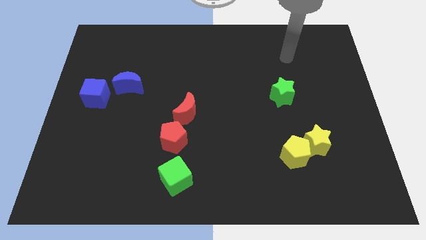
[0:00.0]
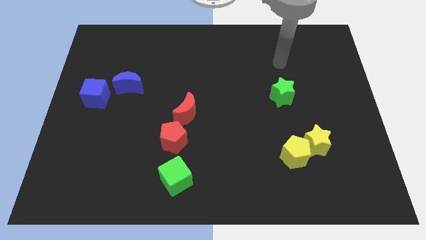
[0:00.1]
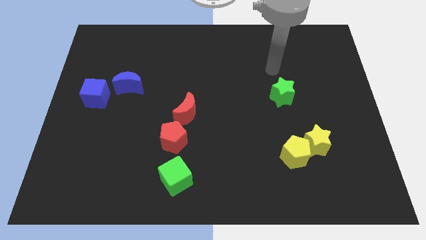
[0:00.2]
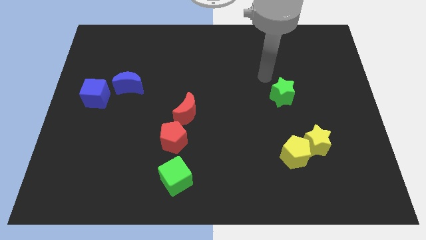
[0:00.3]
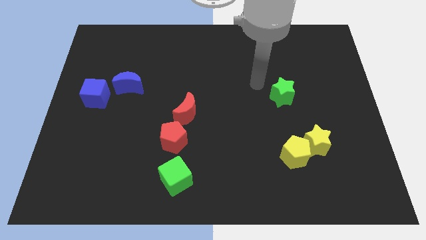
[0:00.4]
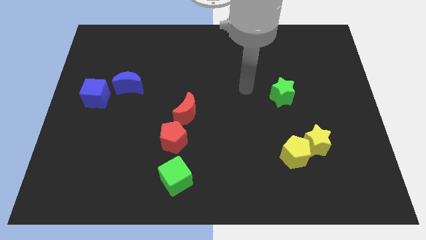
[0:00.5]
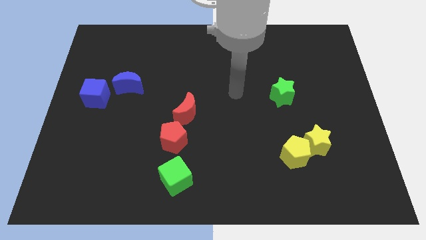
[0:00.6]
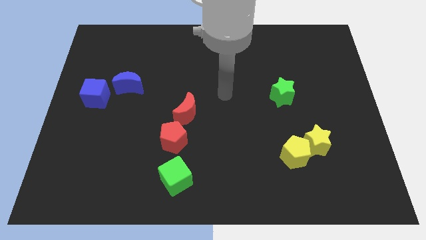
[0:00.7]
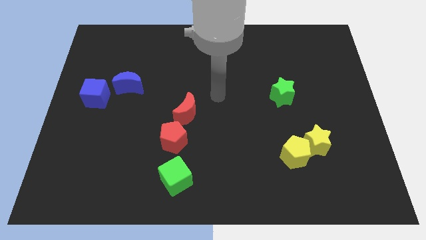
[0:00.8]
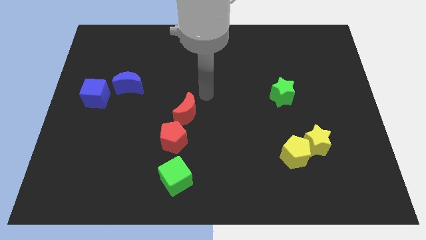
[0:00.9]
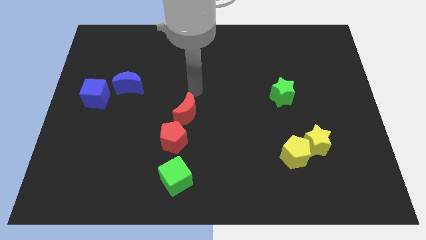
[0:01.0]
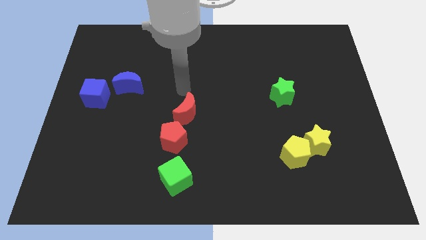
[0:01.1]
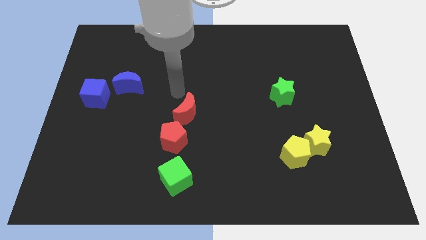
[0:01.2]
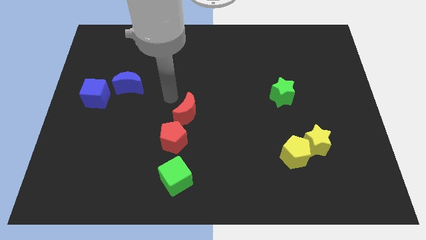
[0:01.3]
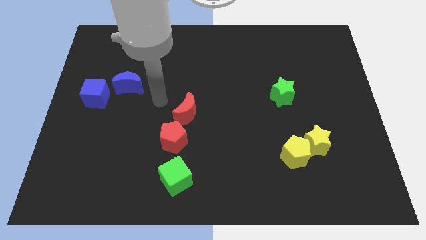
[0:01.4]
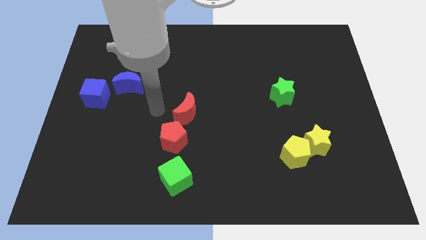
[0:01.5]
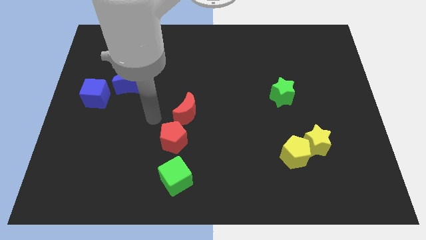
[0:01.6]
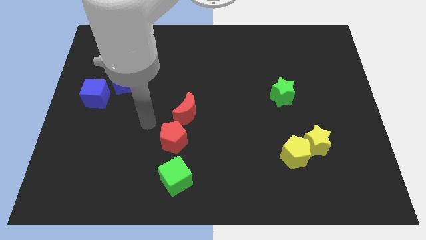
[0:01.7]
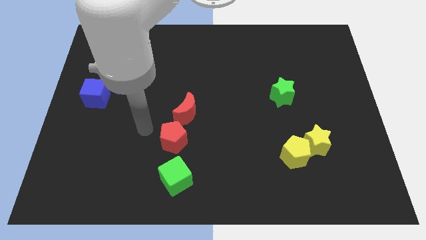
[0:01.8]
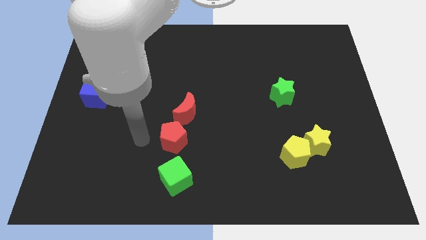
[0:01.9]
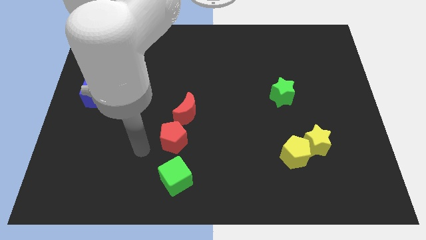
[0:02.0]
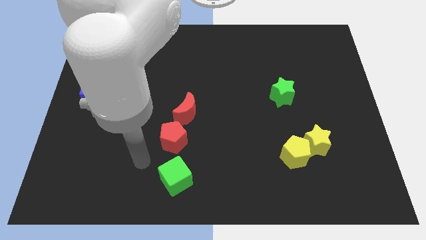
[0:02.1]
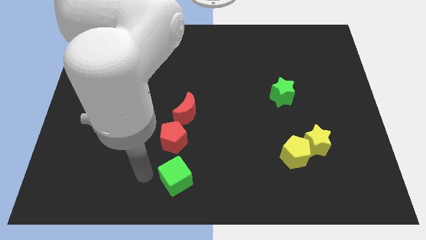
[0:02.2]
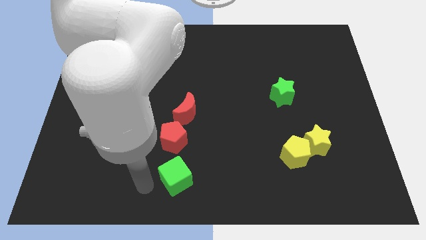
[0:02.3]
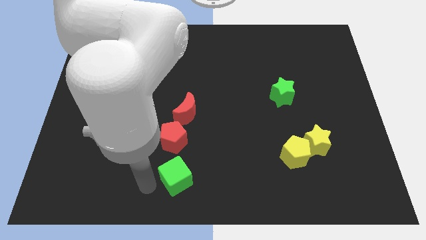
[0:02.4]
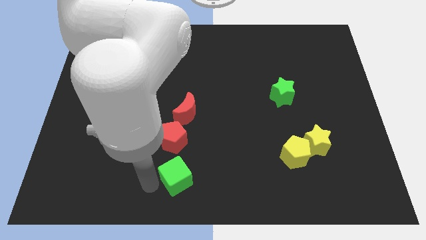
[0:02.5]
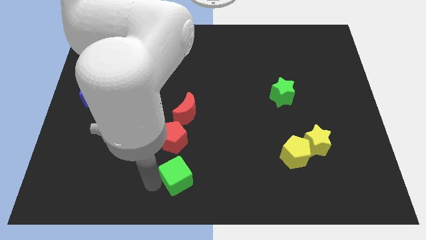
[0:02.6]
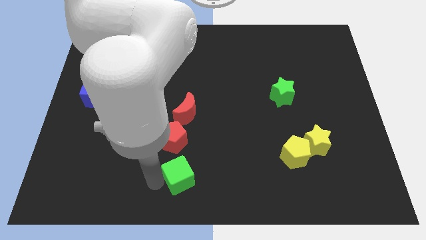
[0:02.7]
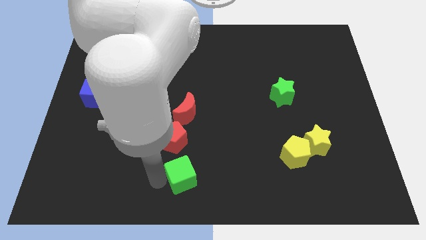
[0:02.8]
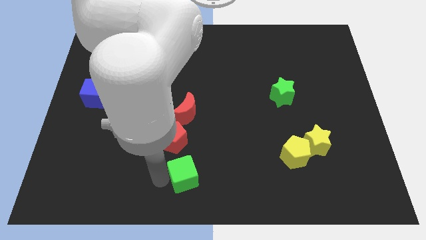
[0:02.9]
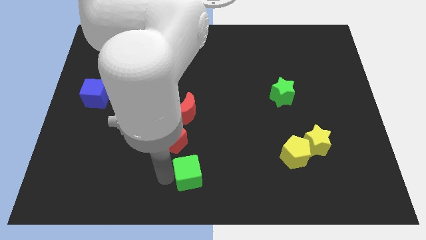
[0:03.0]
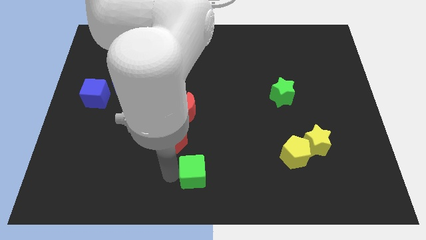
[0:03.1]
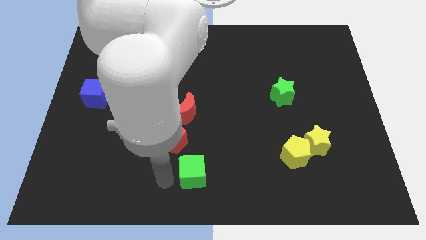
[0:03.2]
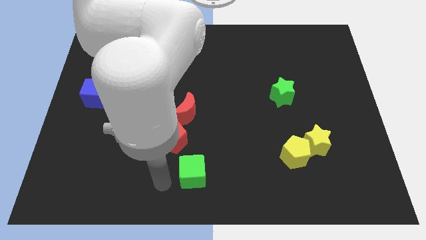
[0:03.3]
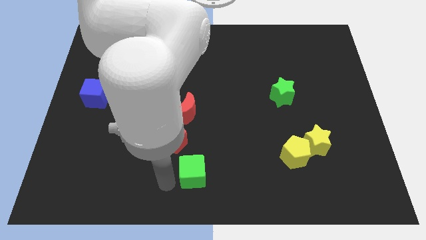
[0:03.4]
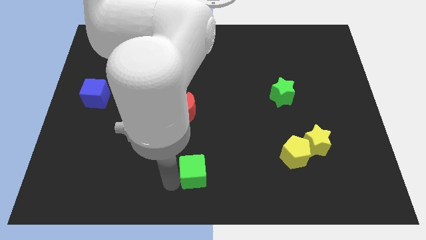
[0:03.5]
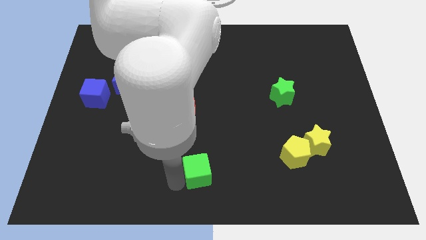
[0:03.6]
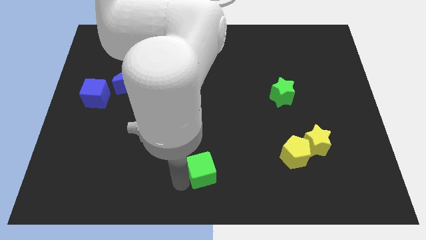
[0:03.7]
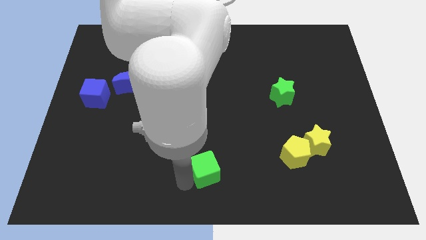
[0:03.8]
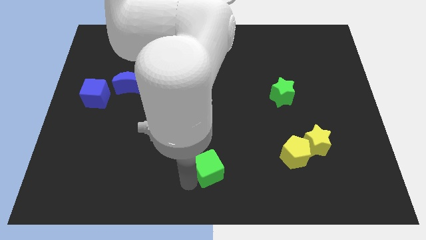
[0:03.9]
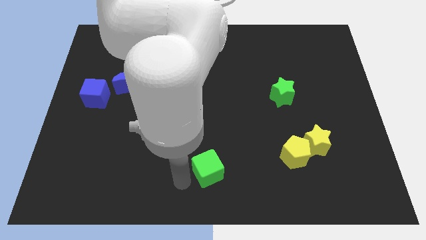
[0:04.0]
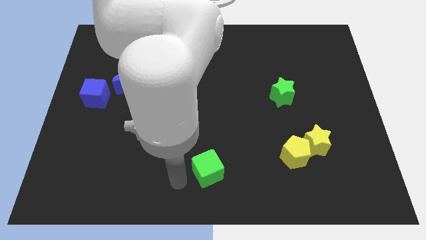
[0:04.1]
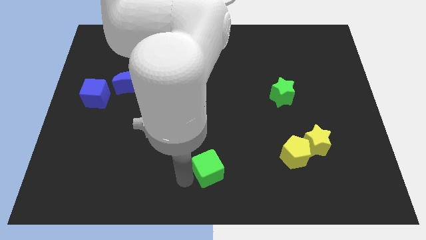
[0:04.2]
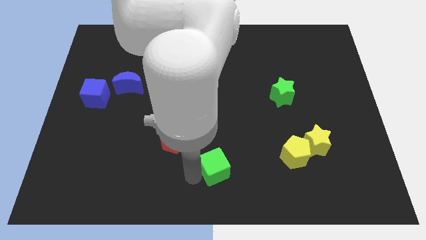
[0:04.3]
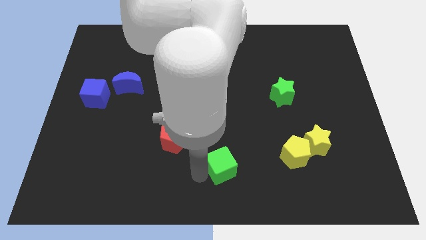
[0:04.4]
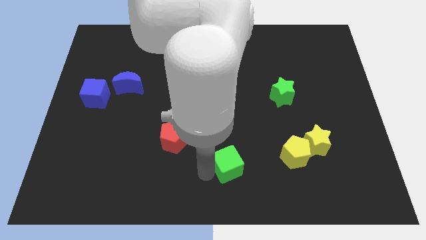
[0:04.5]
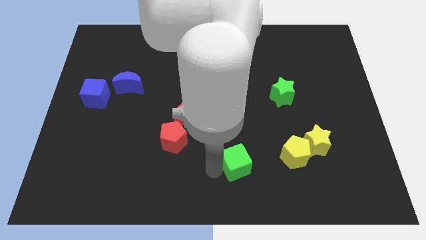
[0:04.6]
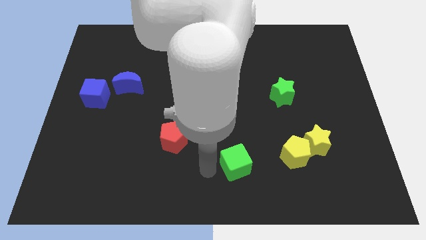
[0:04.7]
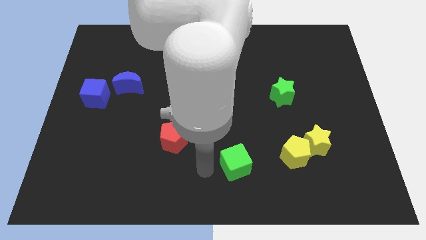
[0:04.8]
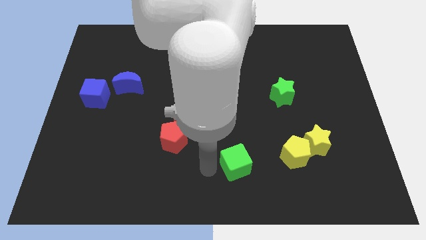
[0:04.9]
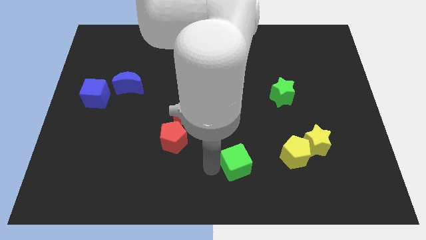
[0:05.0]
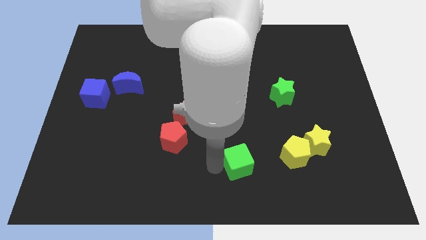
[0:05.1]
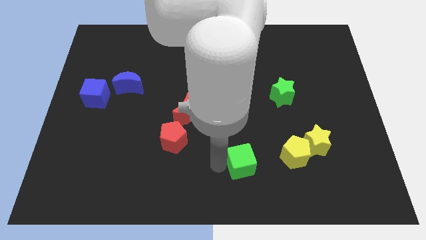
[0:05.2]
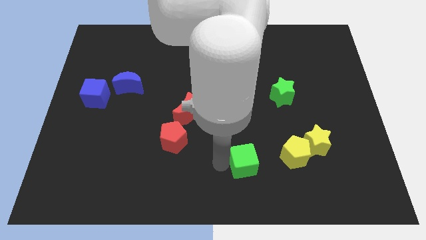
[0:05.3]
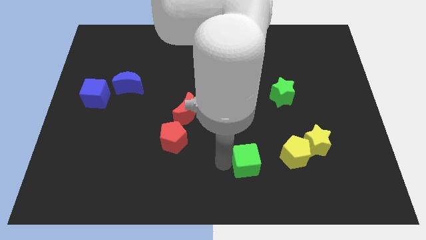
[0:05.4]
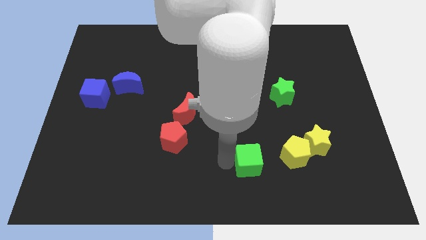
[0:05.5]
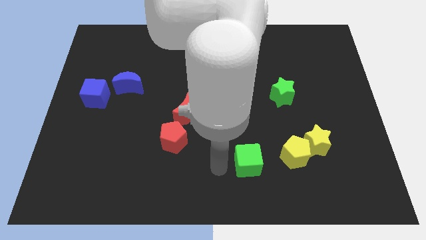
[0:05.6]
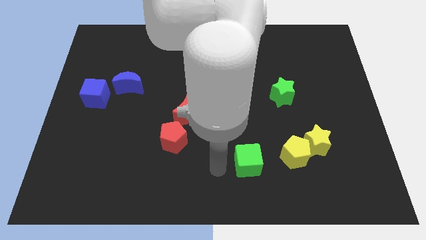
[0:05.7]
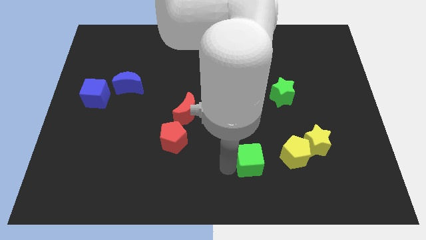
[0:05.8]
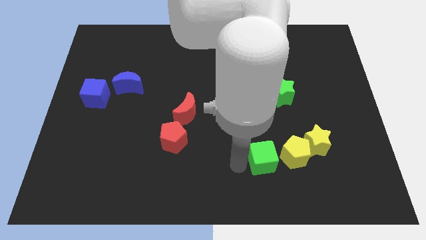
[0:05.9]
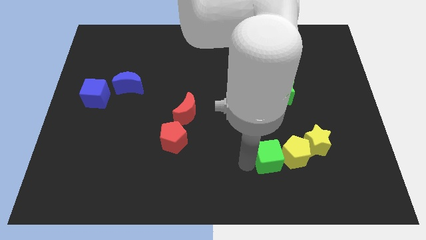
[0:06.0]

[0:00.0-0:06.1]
push the green cube towards the yellow pentagon

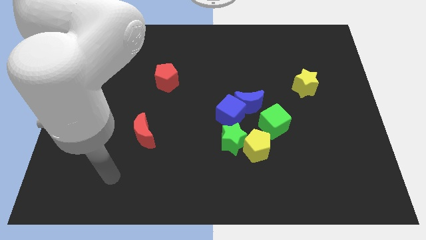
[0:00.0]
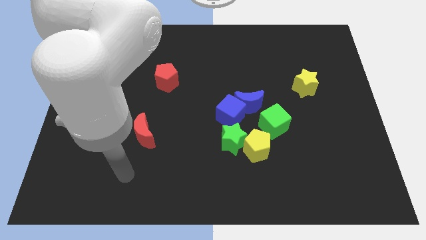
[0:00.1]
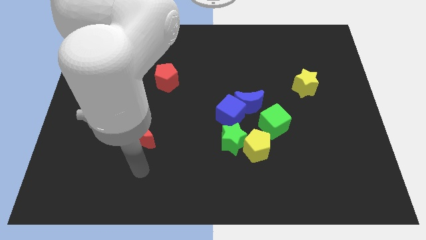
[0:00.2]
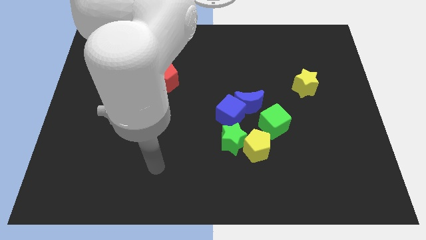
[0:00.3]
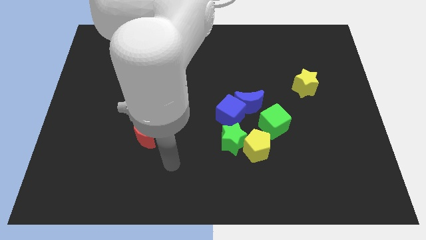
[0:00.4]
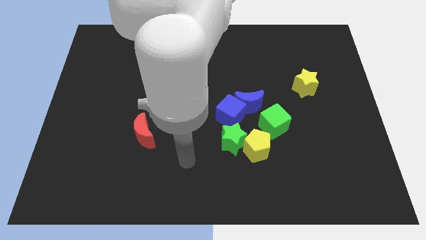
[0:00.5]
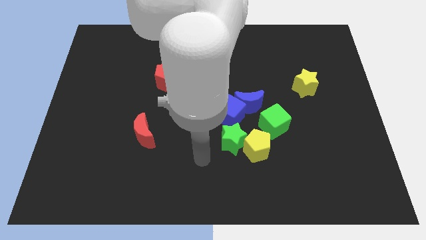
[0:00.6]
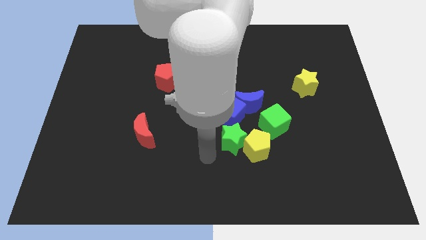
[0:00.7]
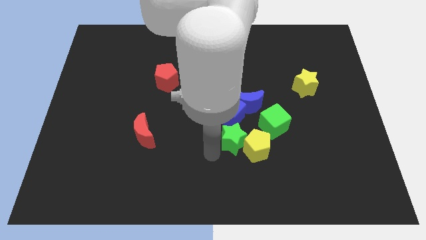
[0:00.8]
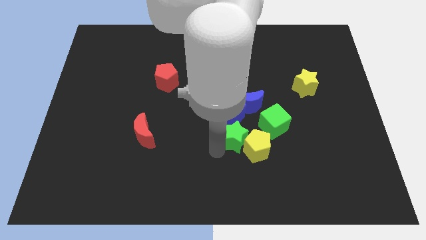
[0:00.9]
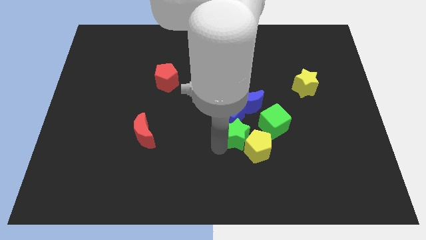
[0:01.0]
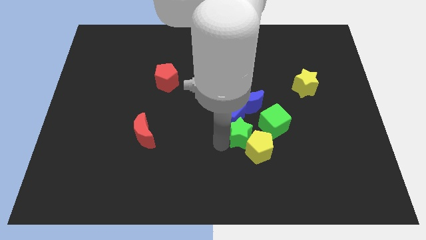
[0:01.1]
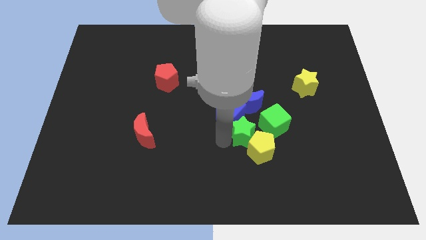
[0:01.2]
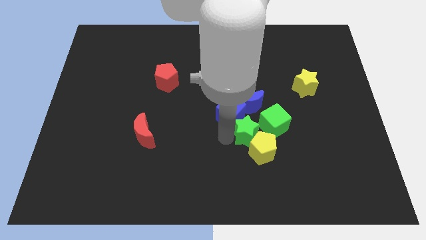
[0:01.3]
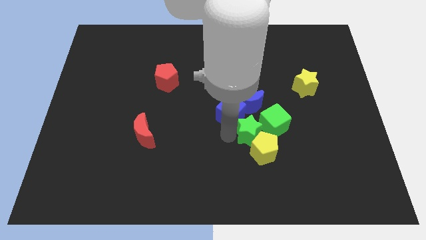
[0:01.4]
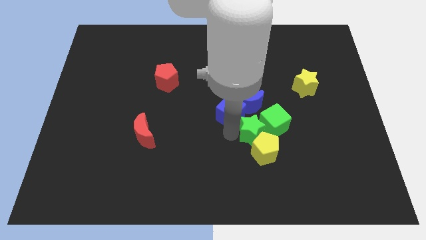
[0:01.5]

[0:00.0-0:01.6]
put the green star close to the green cube
